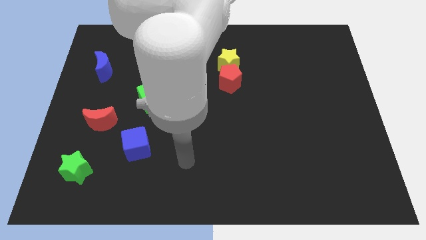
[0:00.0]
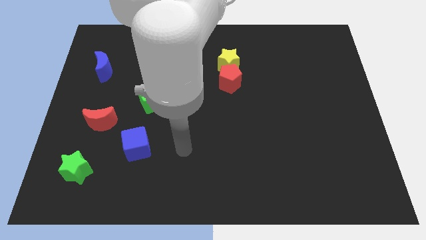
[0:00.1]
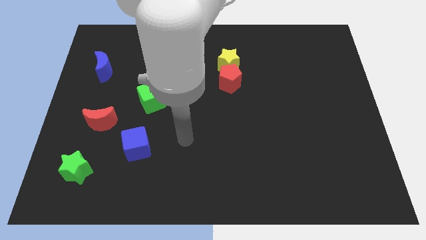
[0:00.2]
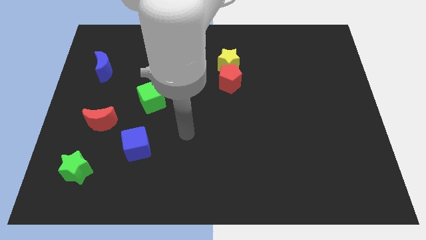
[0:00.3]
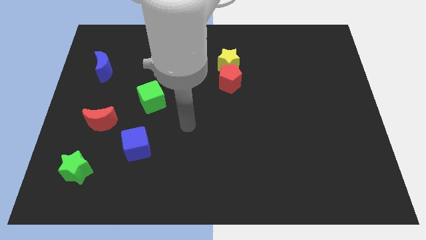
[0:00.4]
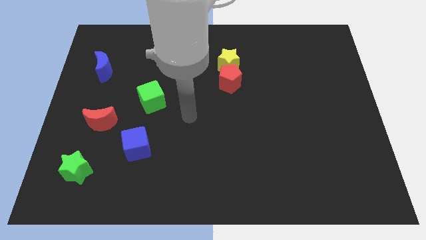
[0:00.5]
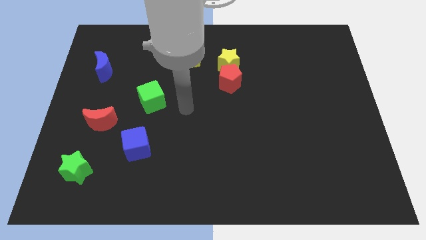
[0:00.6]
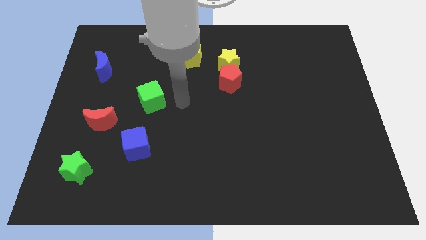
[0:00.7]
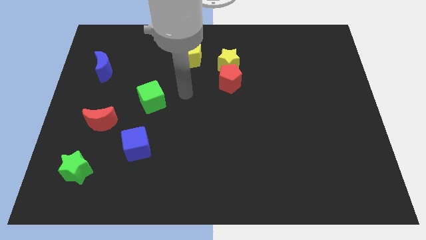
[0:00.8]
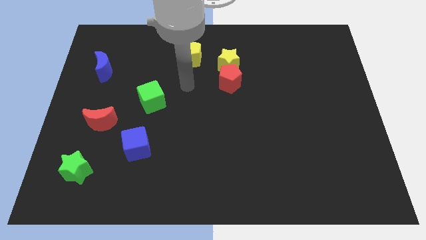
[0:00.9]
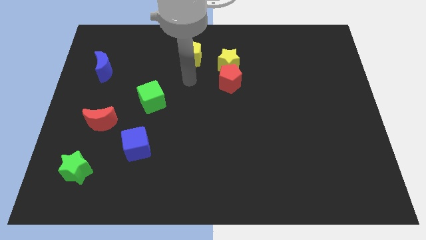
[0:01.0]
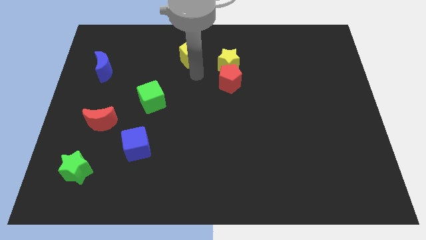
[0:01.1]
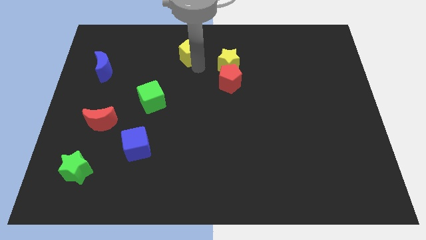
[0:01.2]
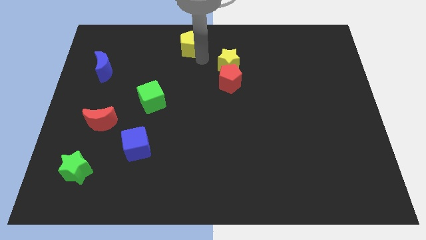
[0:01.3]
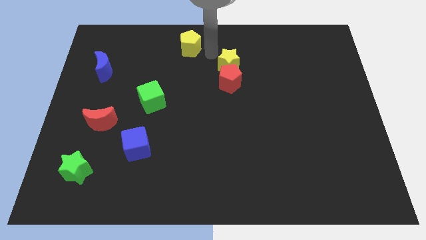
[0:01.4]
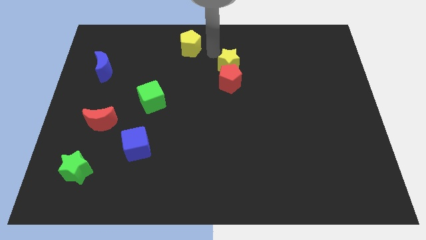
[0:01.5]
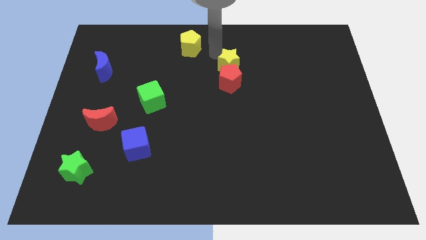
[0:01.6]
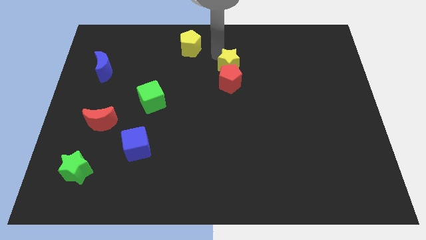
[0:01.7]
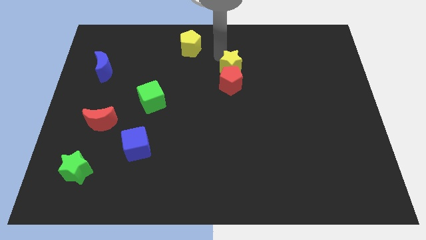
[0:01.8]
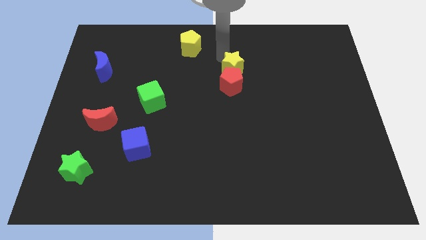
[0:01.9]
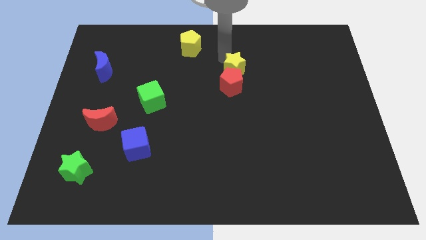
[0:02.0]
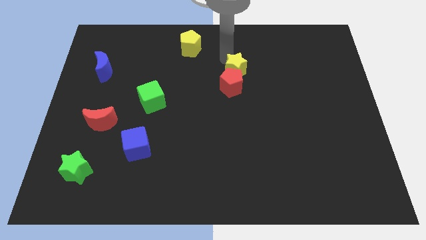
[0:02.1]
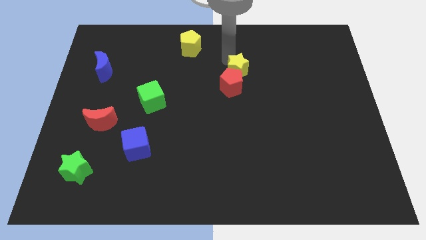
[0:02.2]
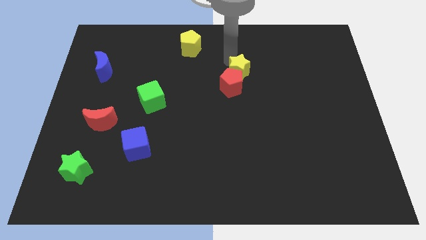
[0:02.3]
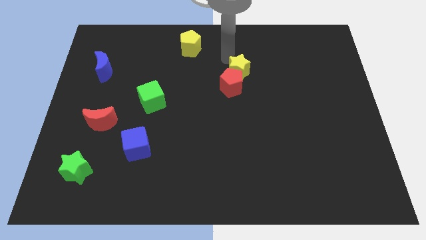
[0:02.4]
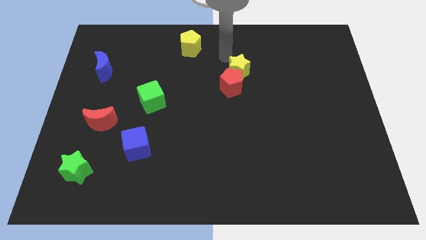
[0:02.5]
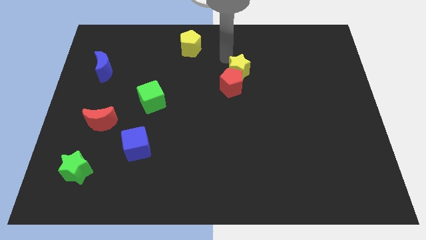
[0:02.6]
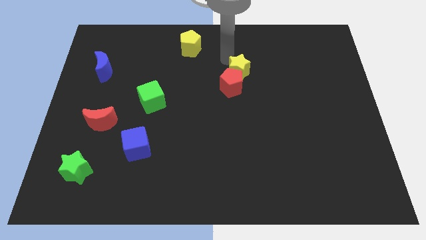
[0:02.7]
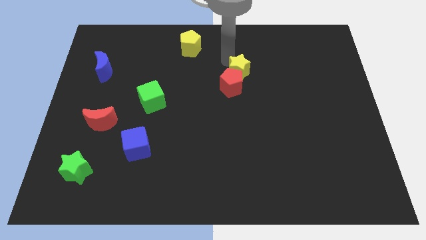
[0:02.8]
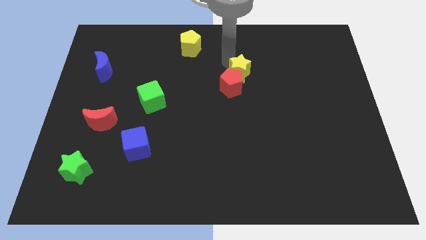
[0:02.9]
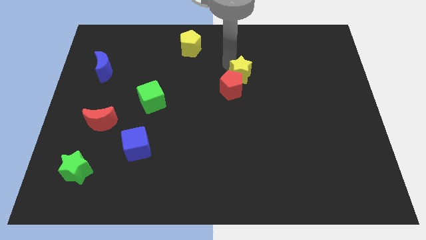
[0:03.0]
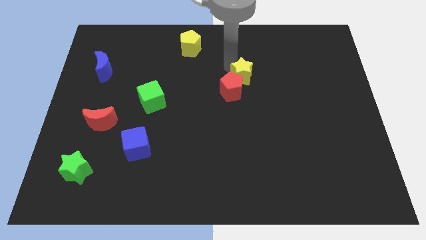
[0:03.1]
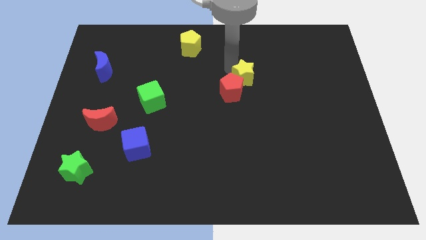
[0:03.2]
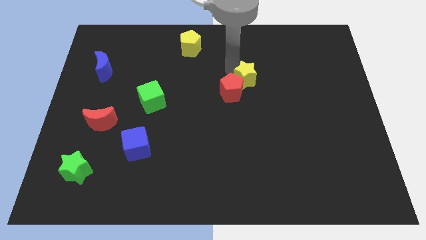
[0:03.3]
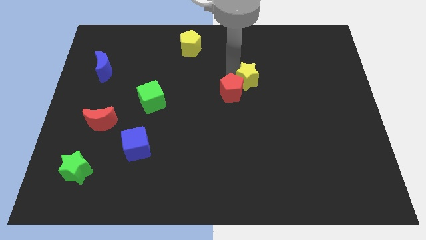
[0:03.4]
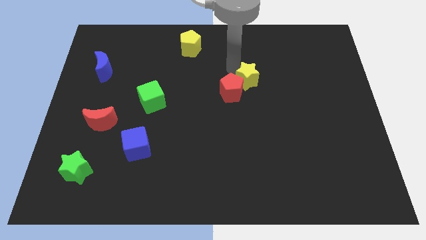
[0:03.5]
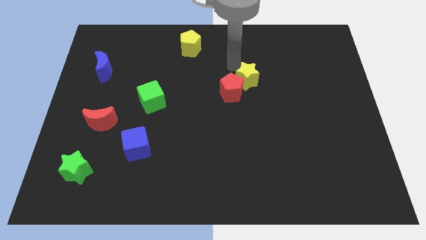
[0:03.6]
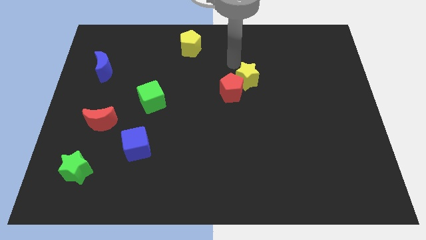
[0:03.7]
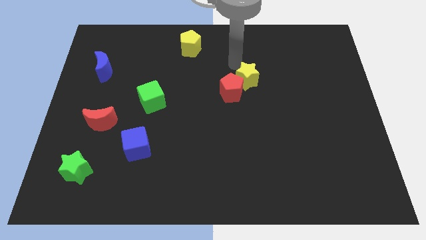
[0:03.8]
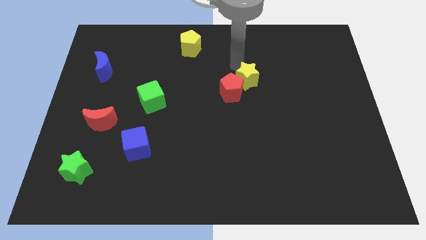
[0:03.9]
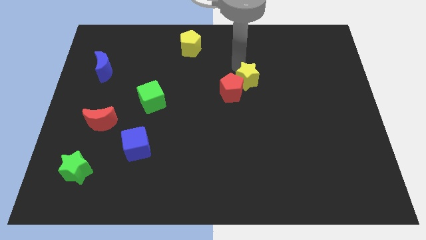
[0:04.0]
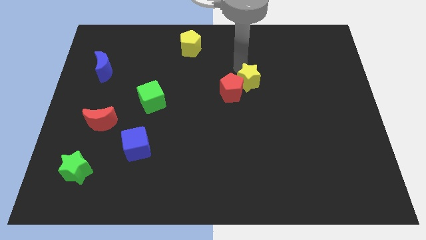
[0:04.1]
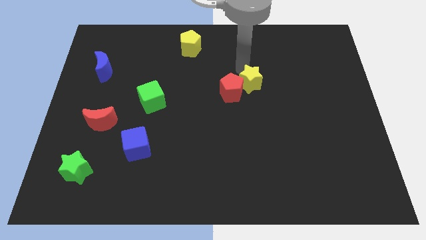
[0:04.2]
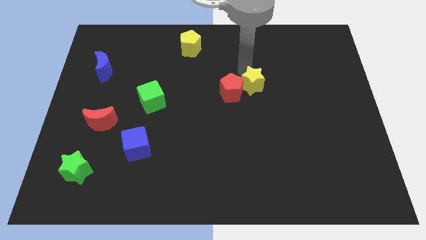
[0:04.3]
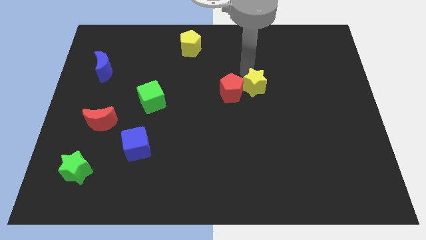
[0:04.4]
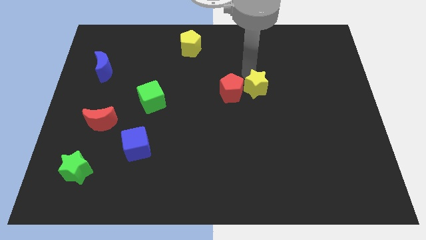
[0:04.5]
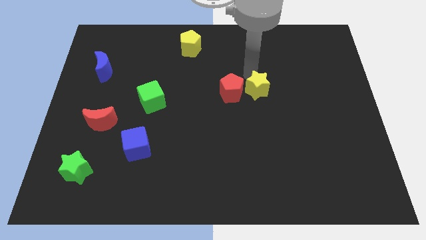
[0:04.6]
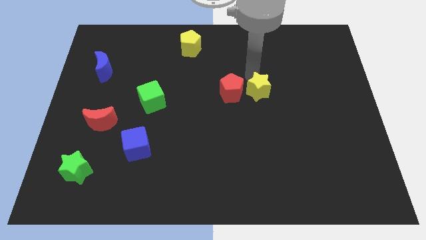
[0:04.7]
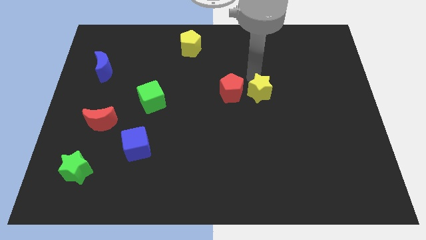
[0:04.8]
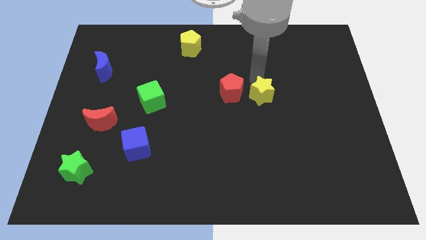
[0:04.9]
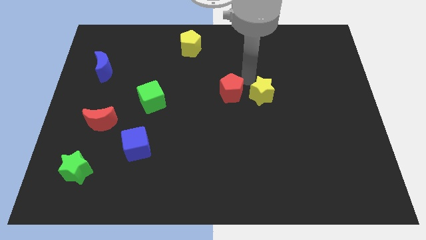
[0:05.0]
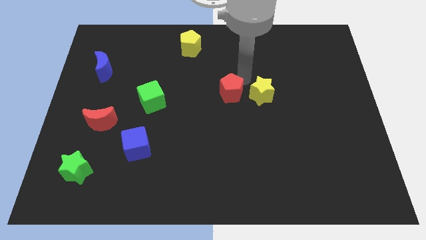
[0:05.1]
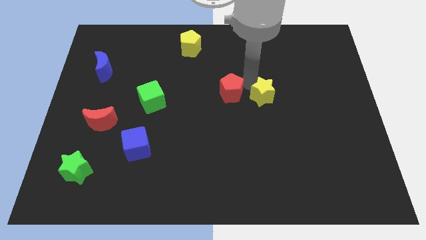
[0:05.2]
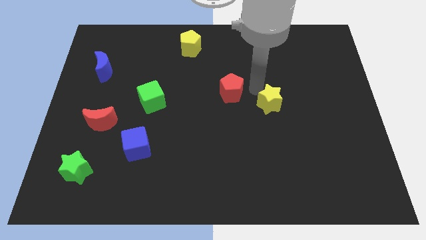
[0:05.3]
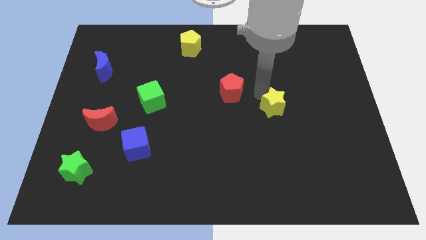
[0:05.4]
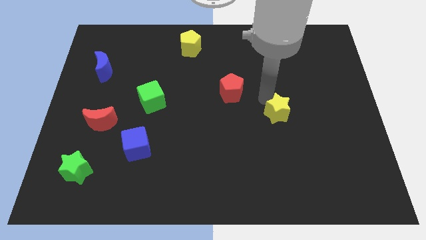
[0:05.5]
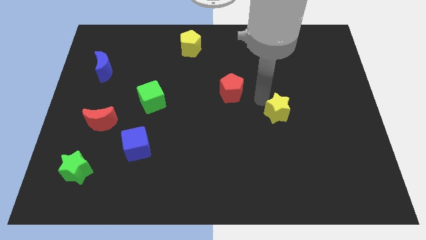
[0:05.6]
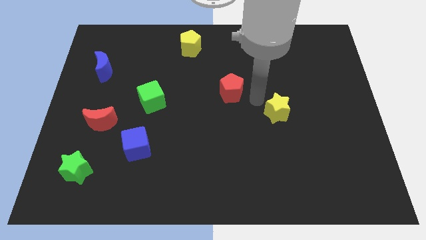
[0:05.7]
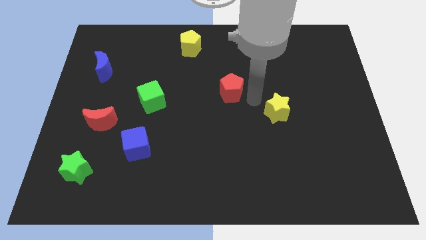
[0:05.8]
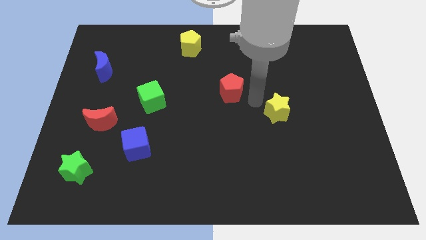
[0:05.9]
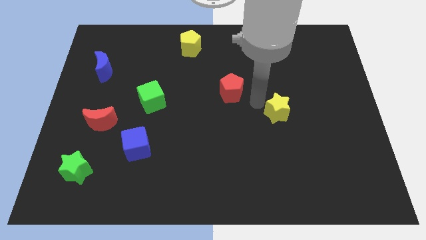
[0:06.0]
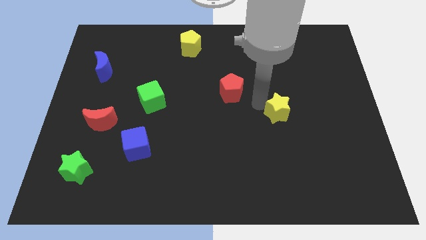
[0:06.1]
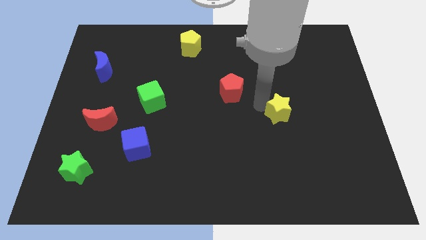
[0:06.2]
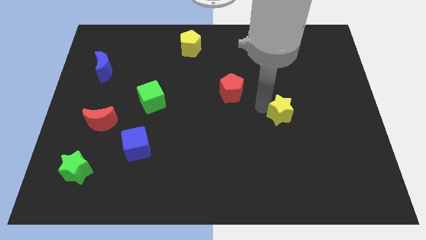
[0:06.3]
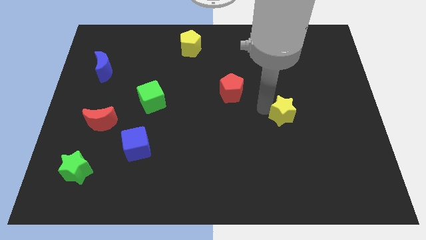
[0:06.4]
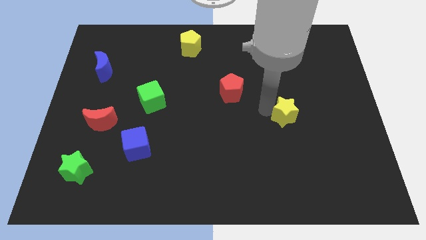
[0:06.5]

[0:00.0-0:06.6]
slide the yellow star downwards and then to the right

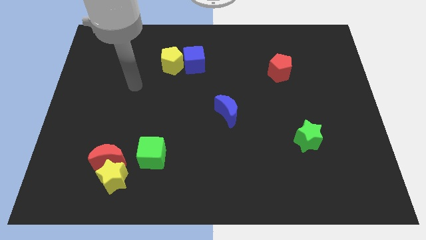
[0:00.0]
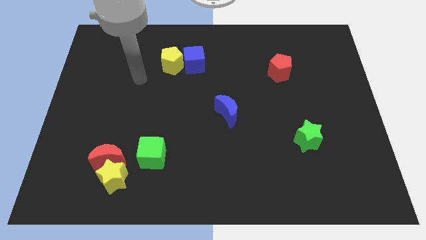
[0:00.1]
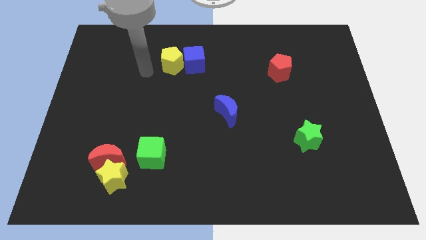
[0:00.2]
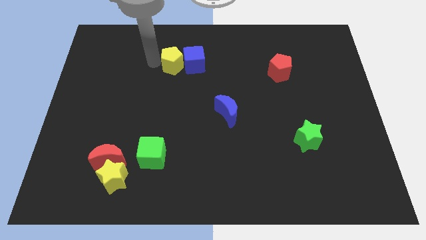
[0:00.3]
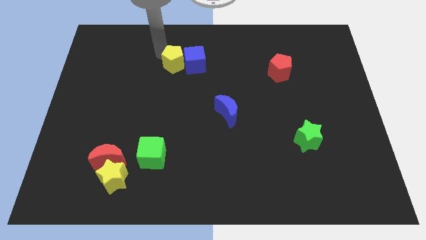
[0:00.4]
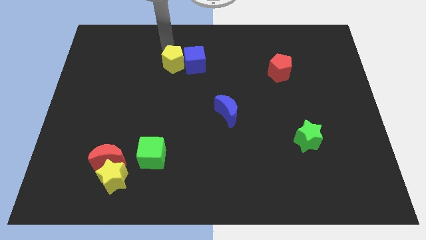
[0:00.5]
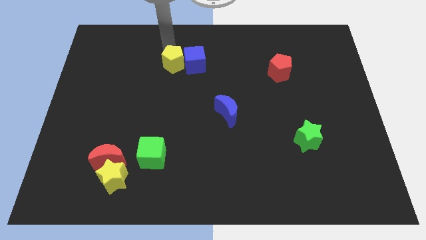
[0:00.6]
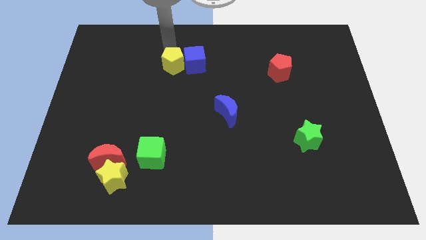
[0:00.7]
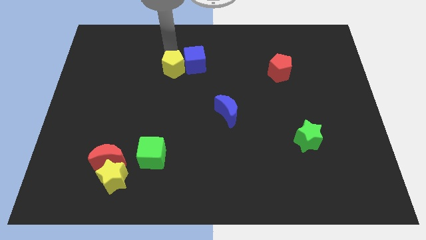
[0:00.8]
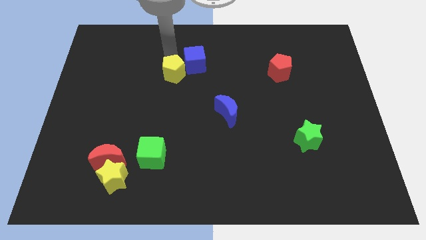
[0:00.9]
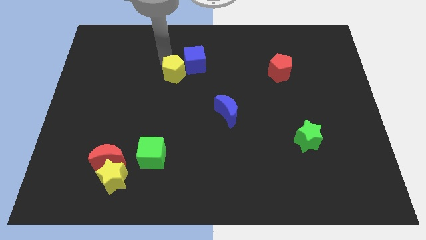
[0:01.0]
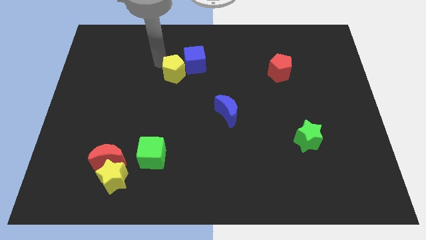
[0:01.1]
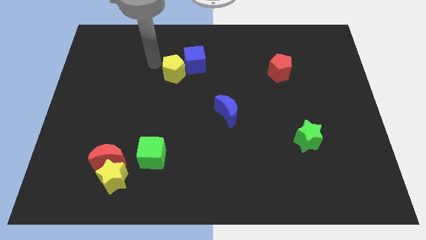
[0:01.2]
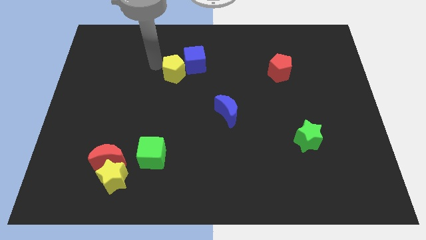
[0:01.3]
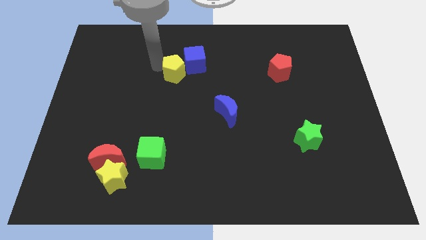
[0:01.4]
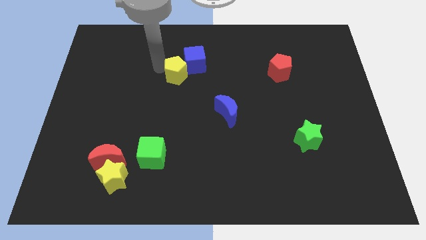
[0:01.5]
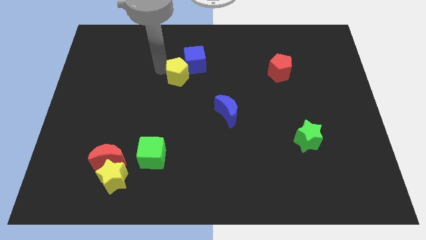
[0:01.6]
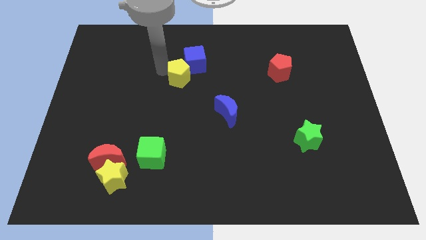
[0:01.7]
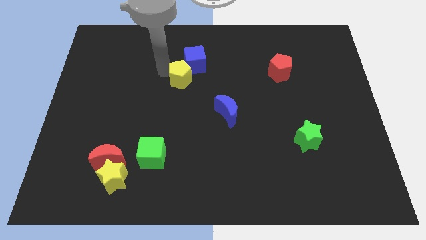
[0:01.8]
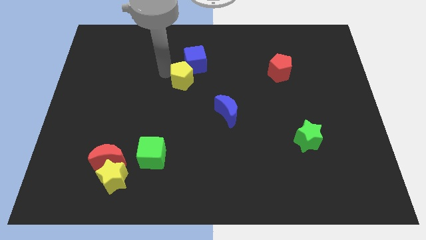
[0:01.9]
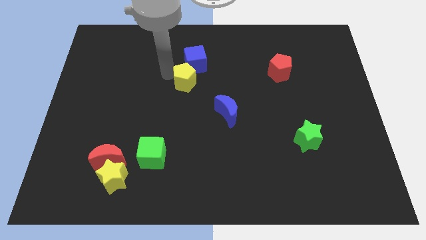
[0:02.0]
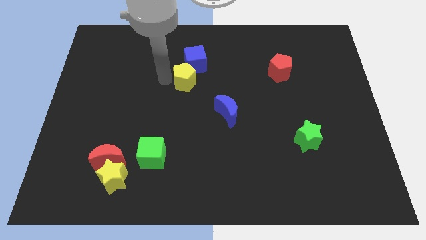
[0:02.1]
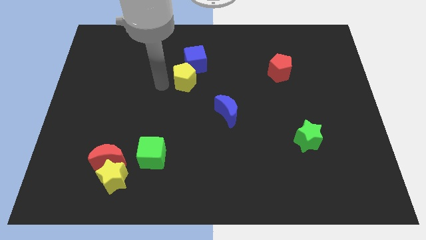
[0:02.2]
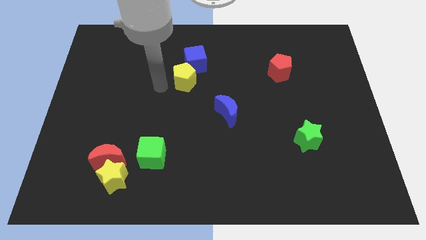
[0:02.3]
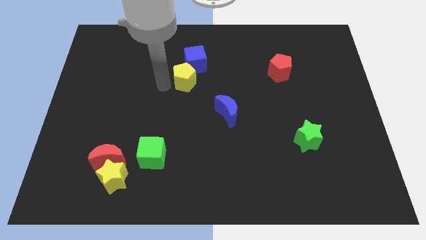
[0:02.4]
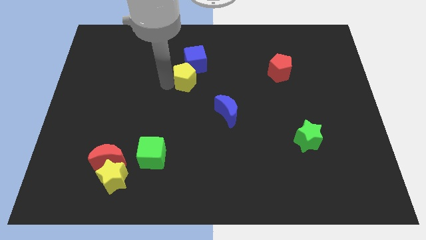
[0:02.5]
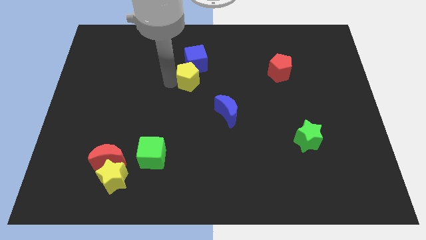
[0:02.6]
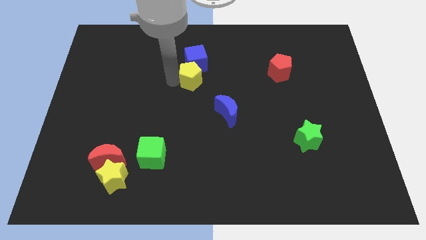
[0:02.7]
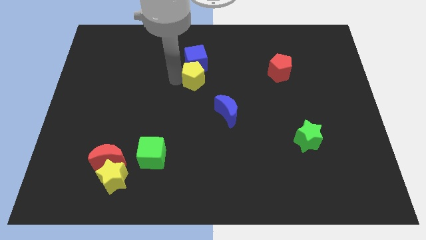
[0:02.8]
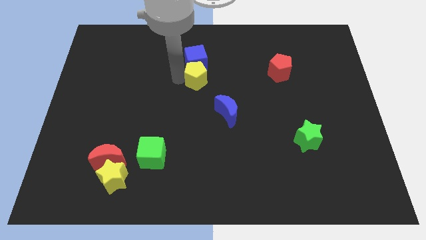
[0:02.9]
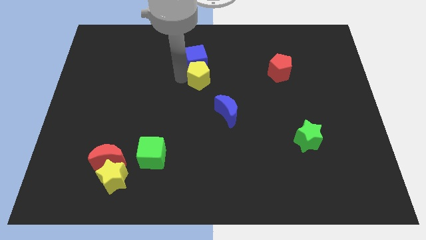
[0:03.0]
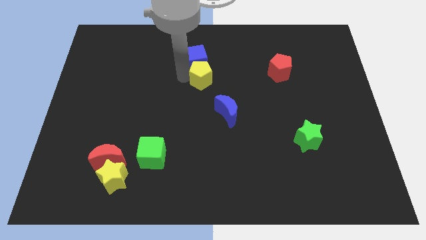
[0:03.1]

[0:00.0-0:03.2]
slide the yellow pentagon right a little
